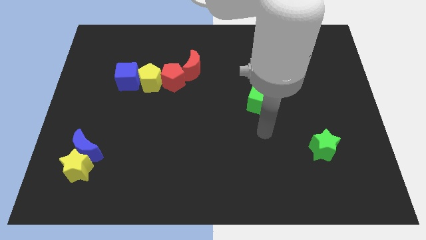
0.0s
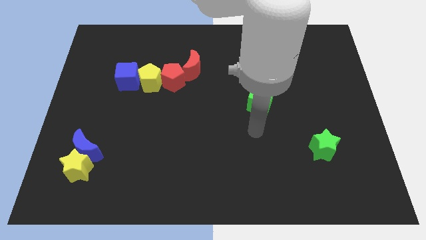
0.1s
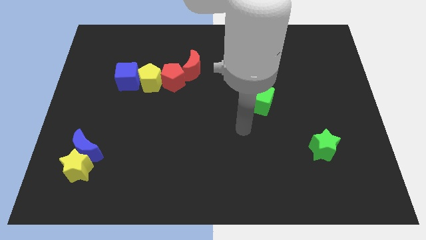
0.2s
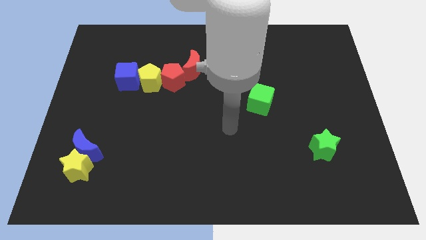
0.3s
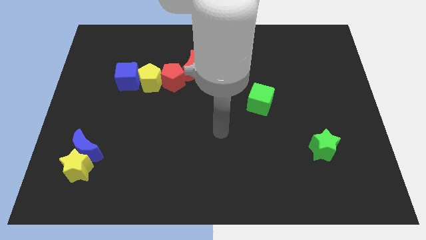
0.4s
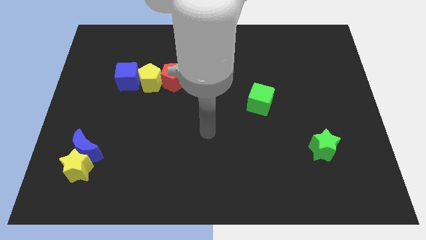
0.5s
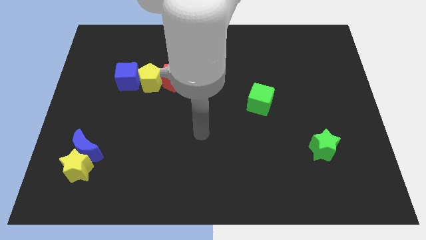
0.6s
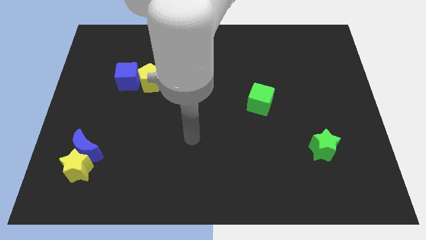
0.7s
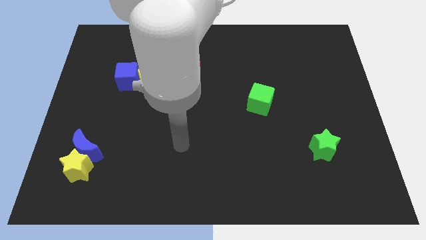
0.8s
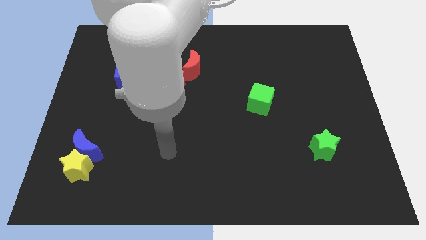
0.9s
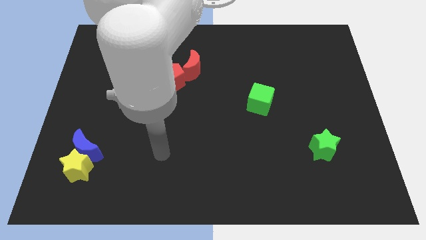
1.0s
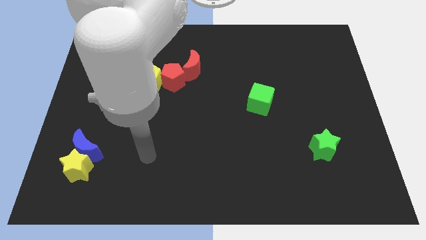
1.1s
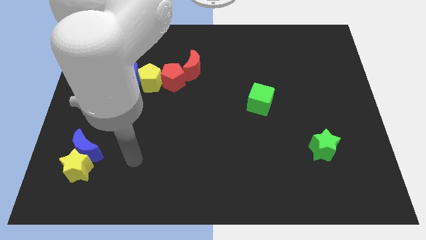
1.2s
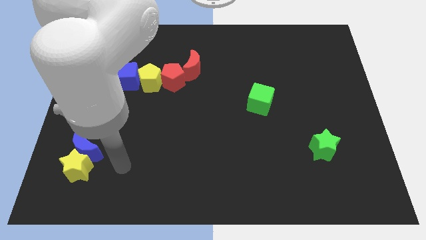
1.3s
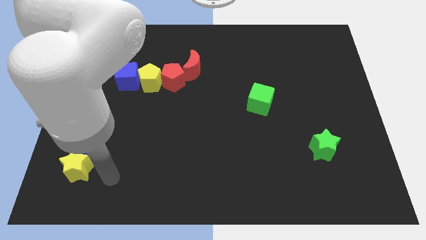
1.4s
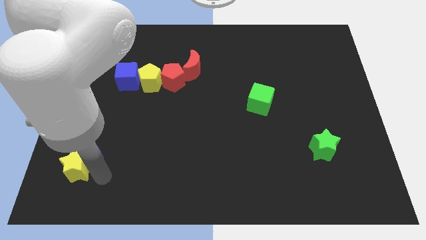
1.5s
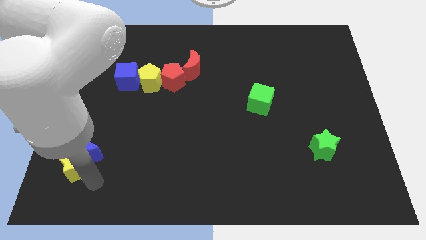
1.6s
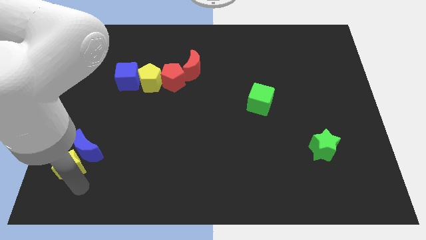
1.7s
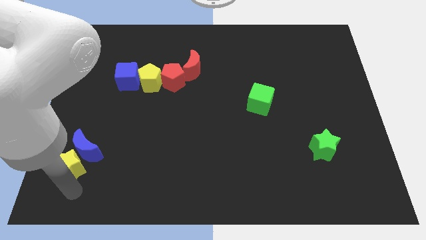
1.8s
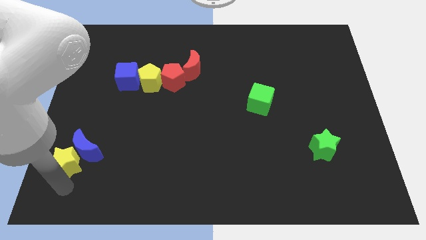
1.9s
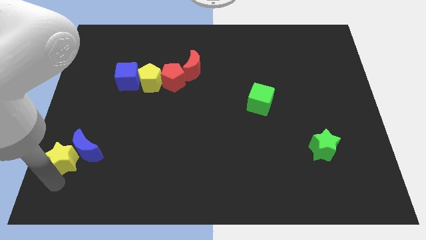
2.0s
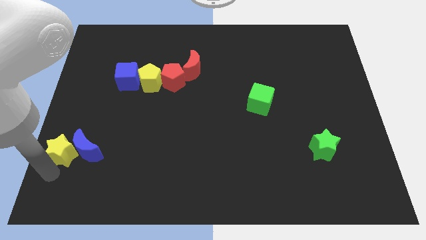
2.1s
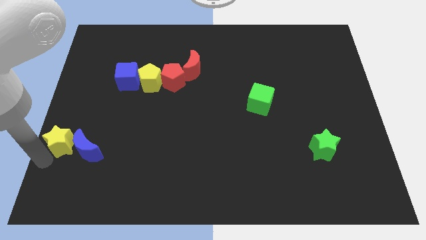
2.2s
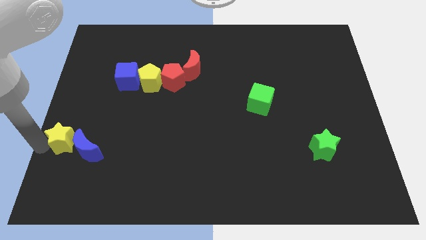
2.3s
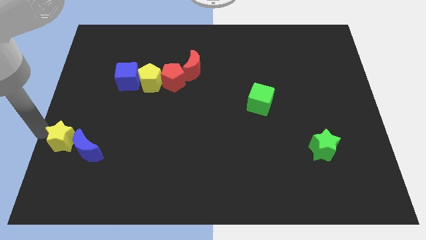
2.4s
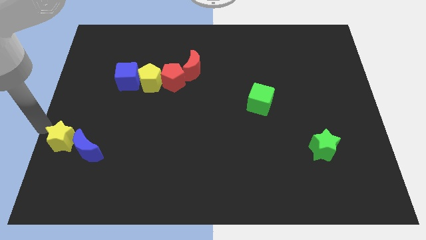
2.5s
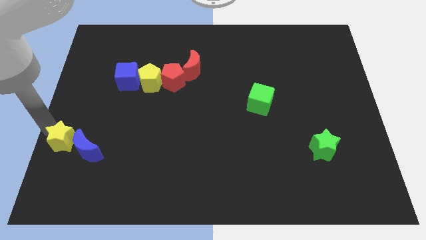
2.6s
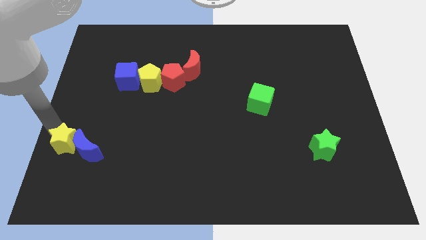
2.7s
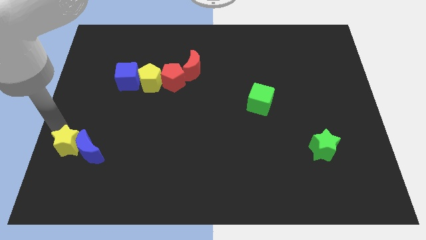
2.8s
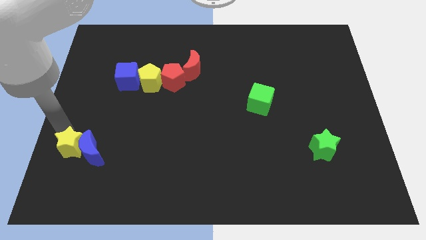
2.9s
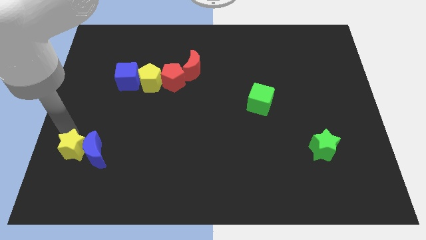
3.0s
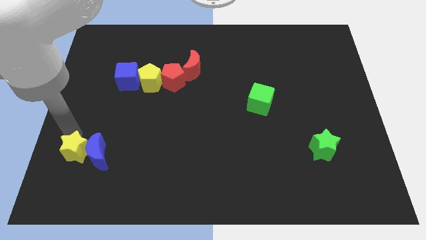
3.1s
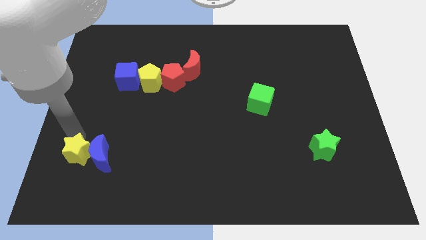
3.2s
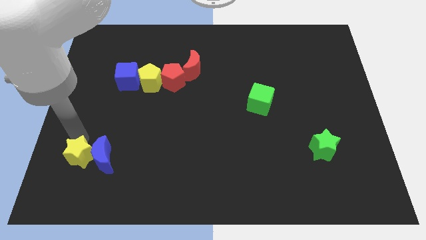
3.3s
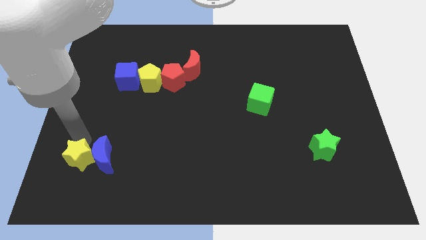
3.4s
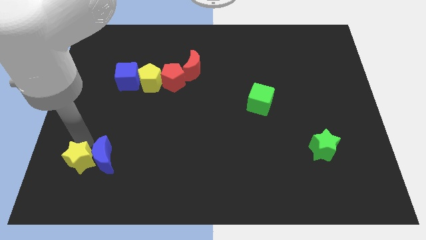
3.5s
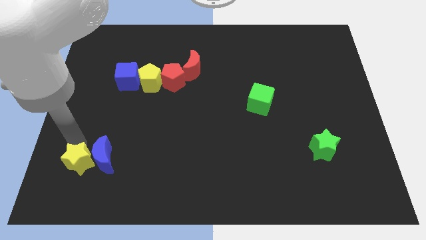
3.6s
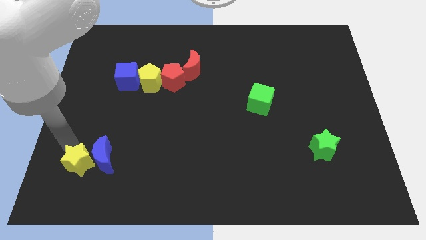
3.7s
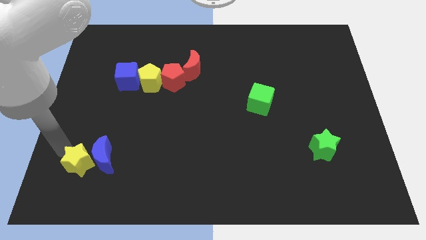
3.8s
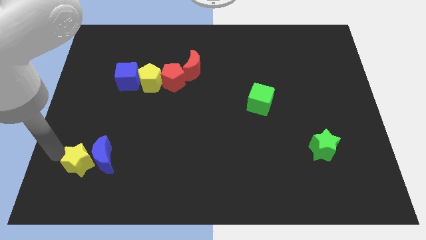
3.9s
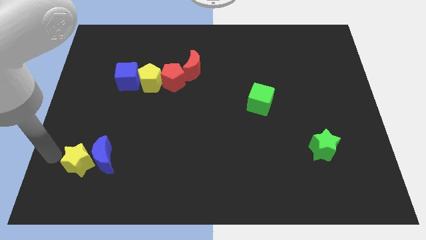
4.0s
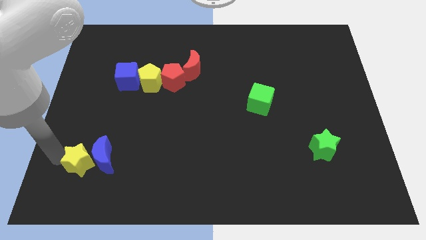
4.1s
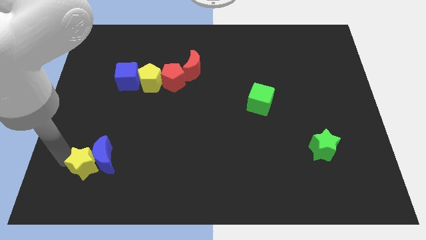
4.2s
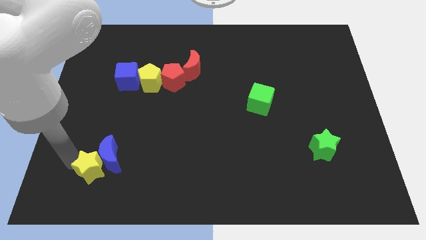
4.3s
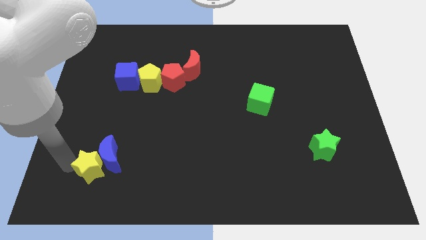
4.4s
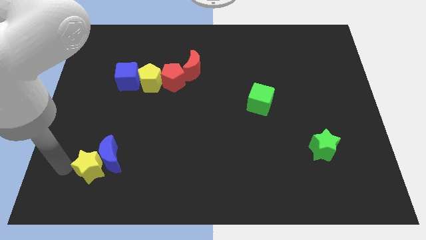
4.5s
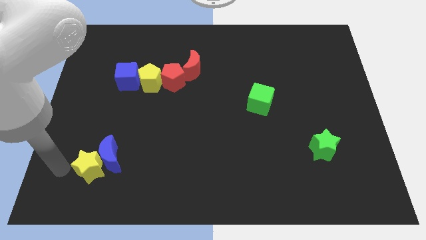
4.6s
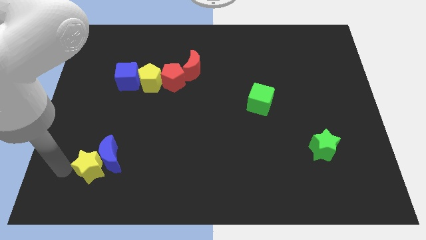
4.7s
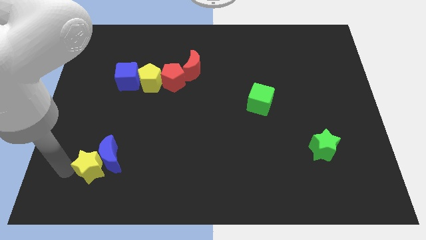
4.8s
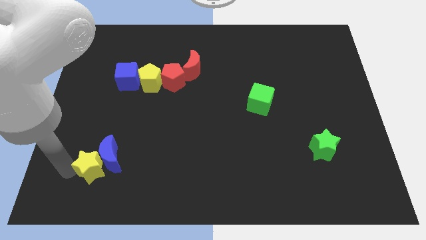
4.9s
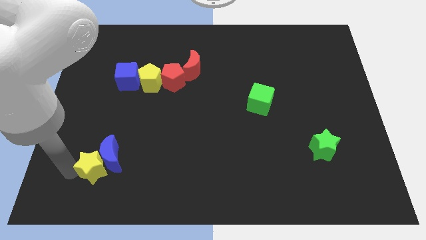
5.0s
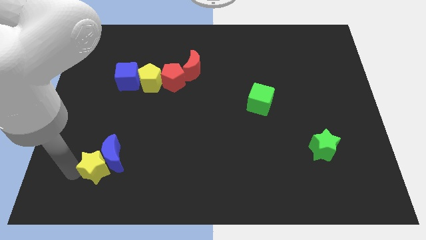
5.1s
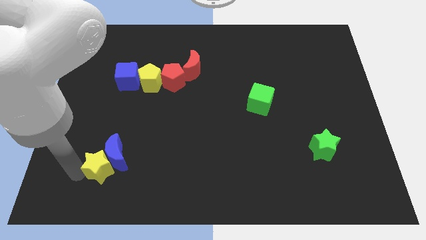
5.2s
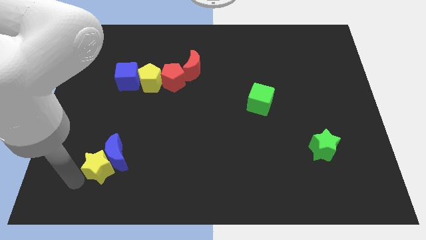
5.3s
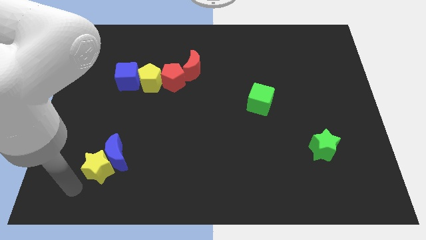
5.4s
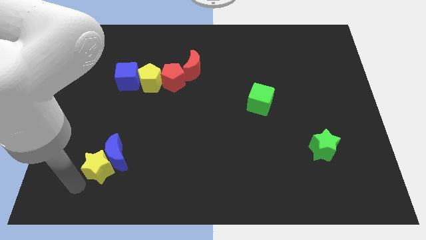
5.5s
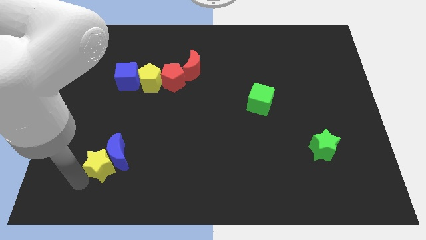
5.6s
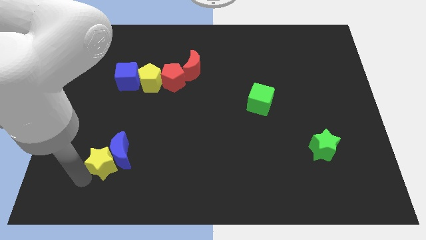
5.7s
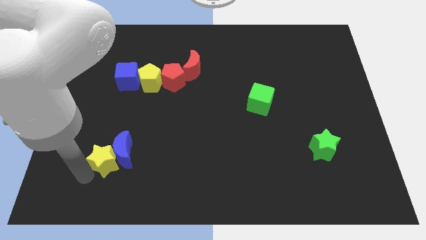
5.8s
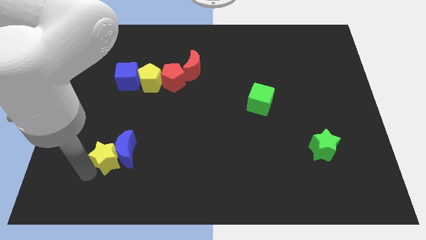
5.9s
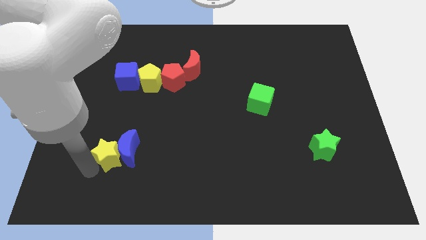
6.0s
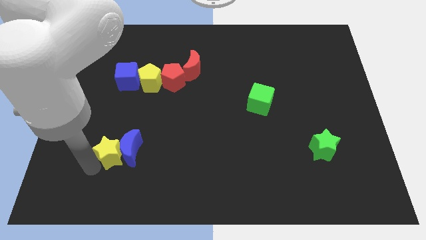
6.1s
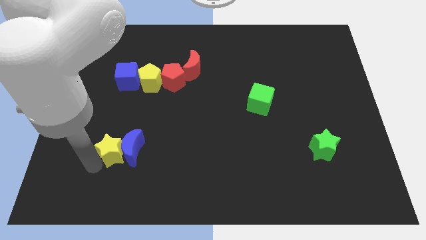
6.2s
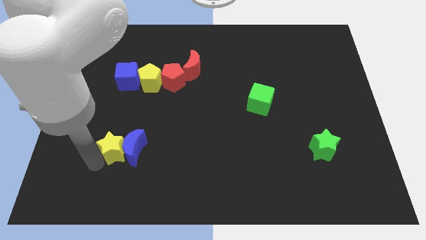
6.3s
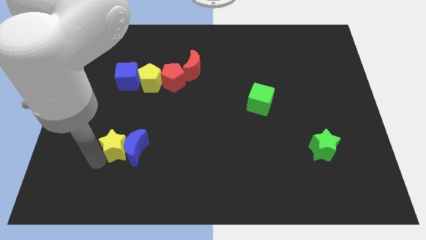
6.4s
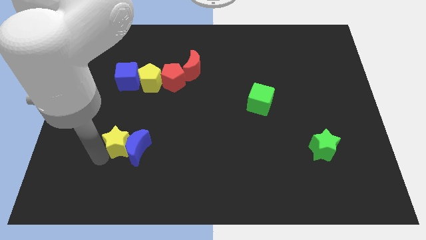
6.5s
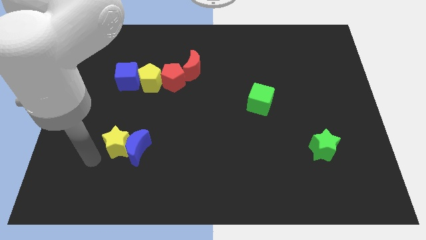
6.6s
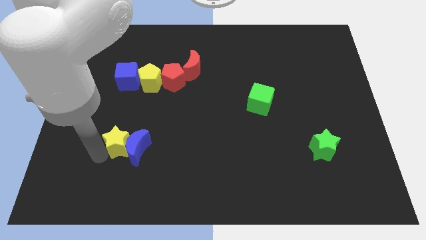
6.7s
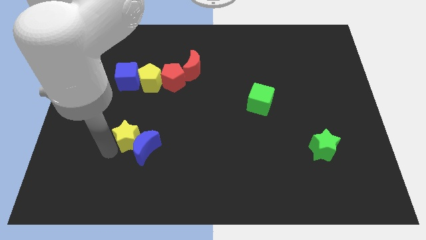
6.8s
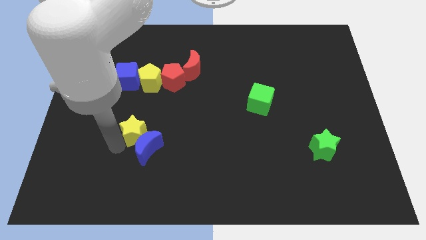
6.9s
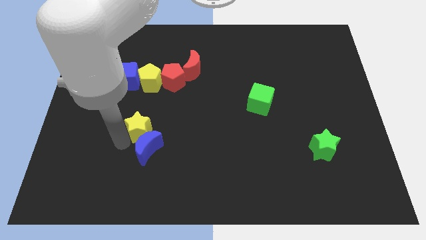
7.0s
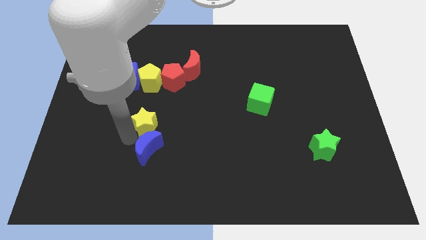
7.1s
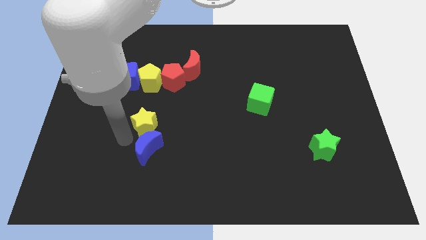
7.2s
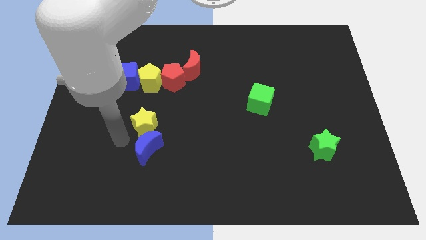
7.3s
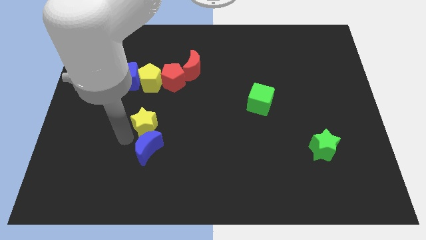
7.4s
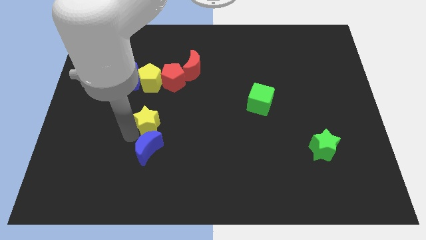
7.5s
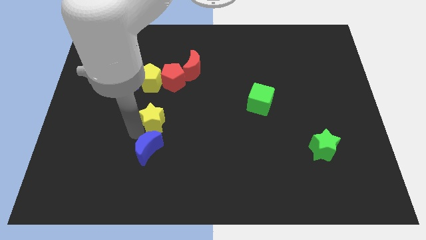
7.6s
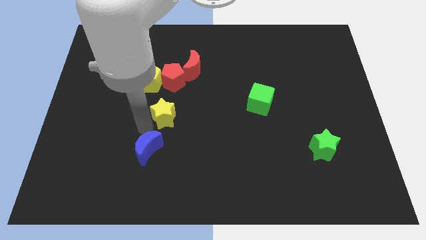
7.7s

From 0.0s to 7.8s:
push the yellow star diagonally up and right
